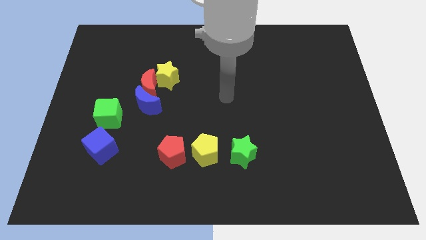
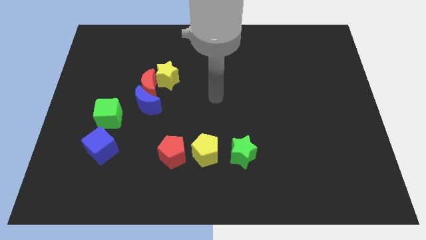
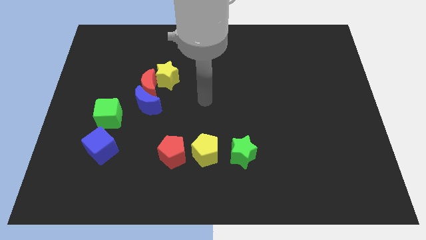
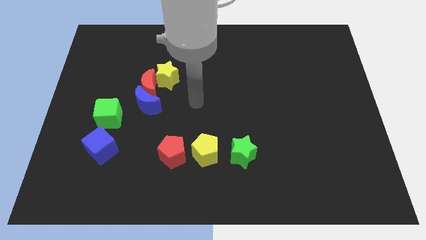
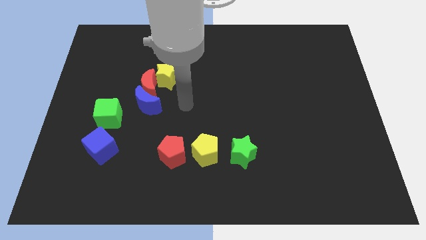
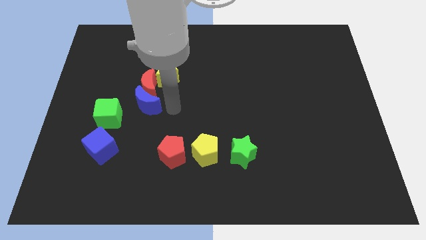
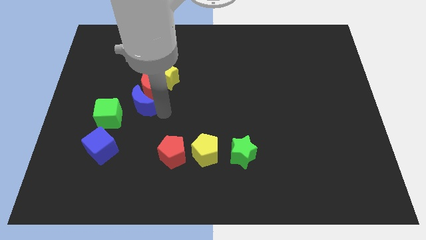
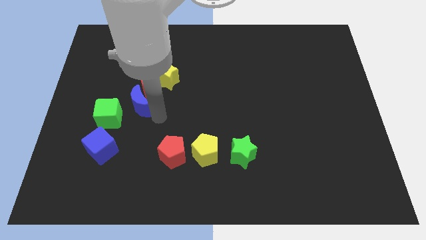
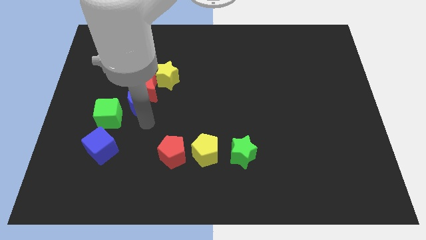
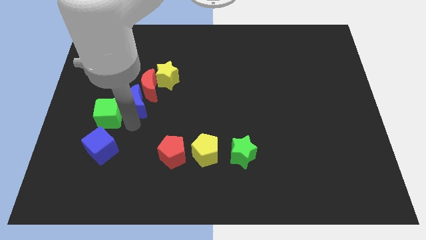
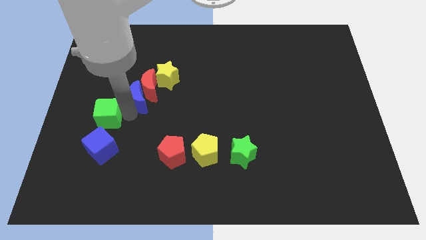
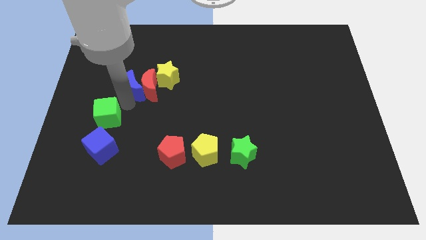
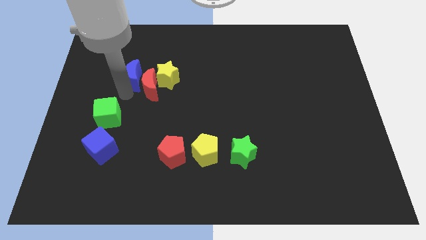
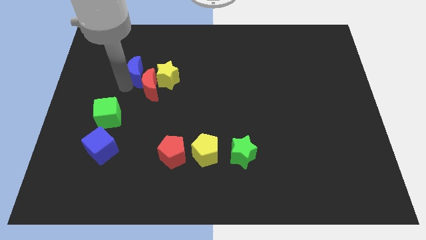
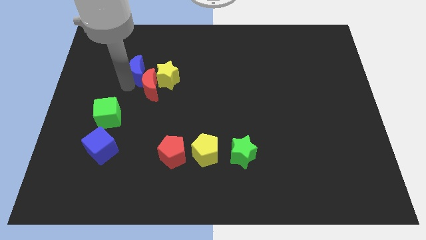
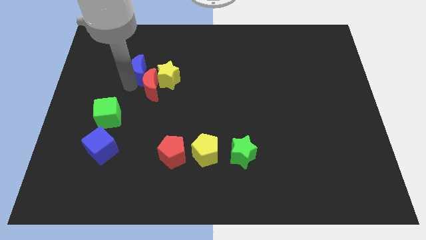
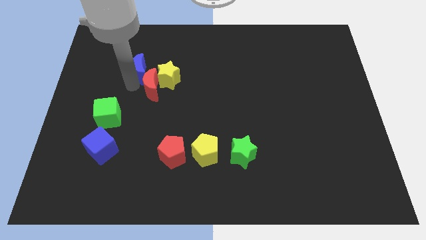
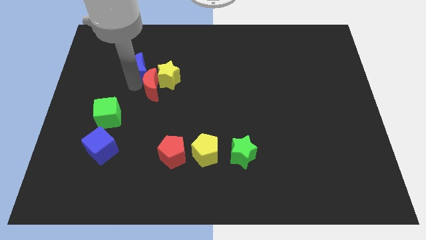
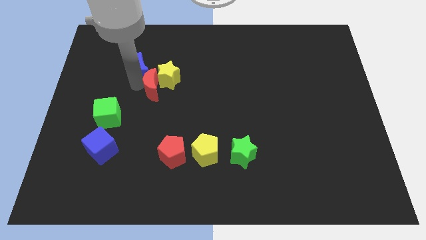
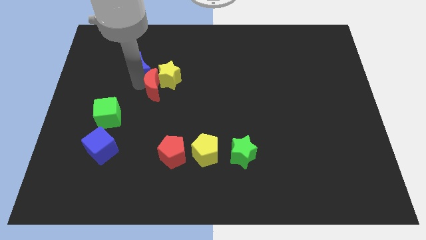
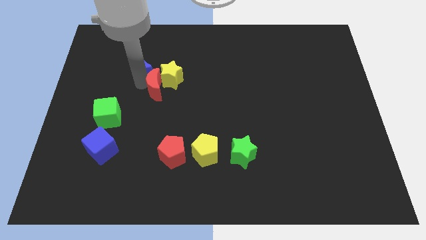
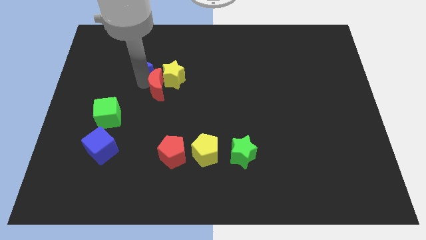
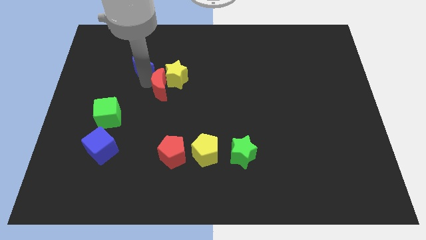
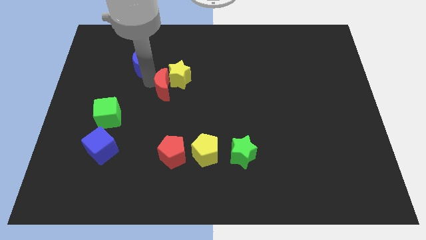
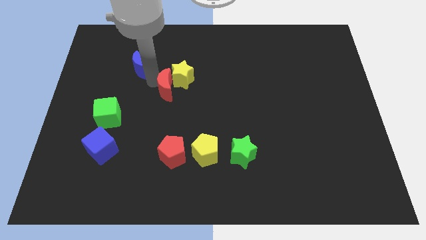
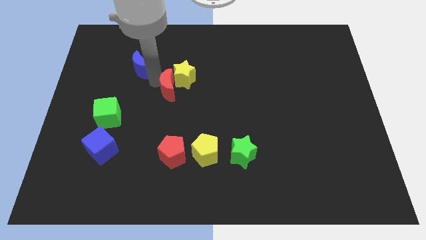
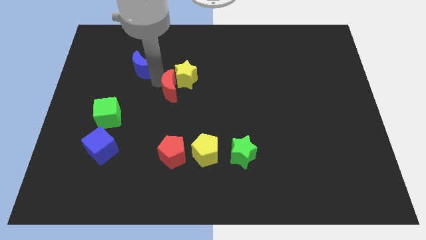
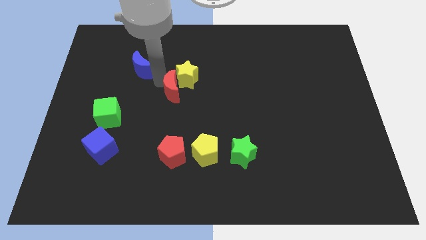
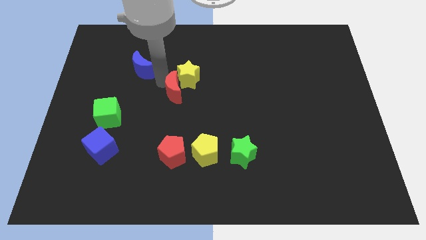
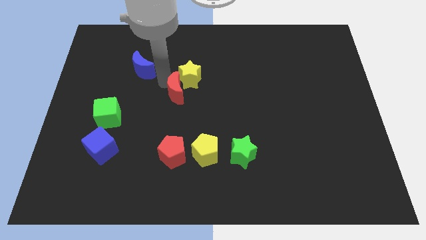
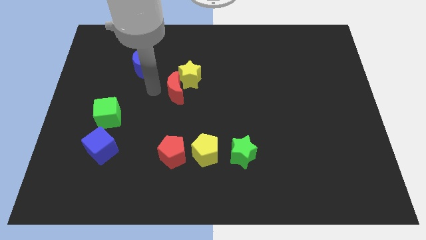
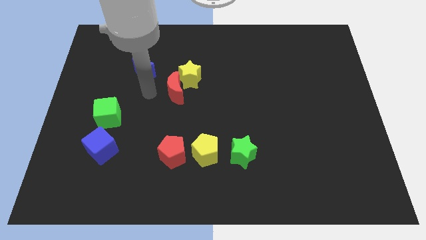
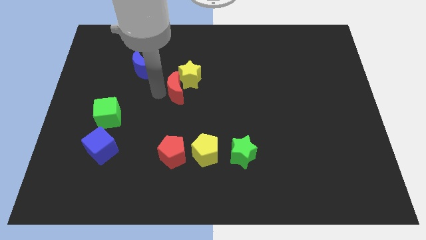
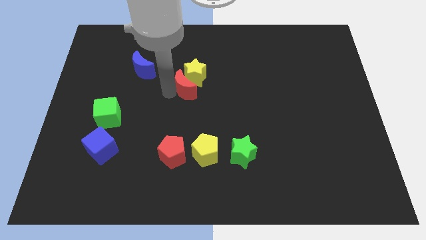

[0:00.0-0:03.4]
slide the red moon a little right

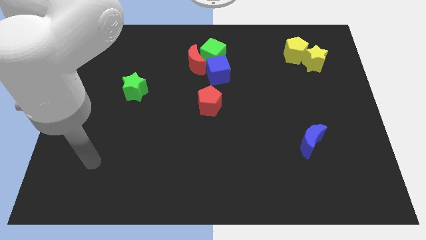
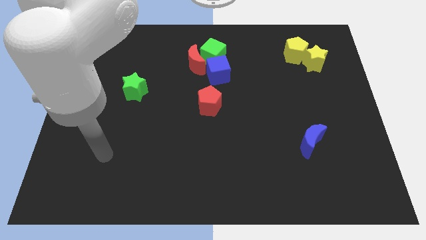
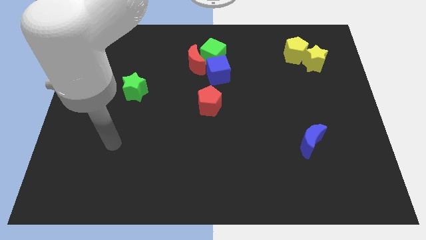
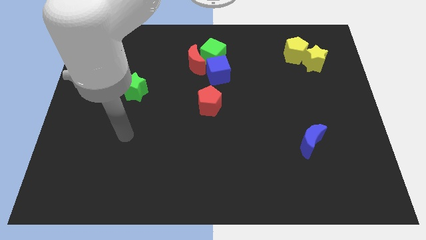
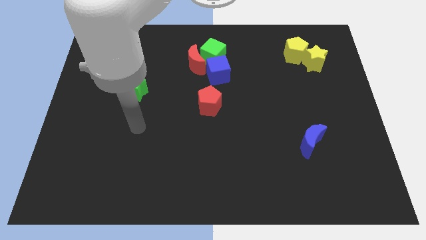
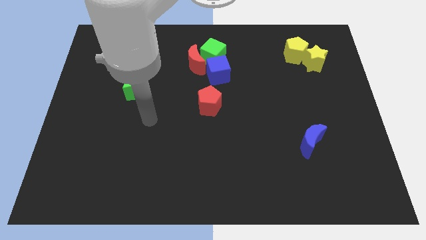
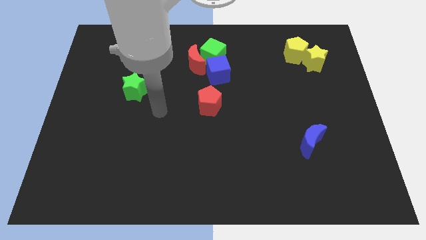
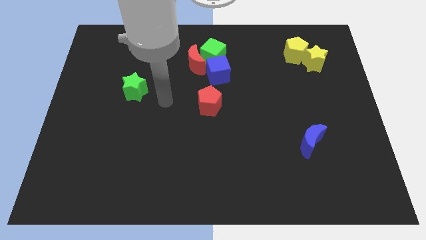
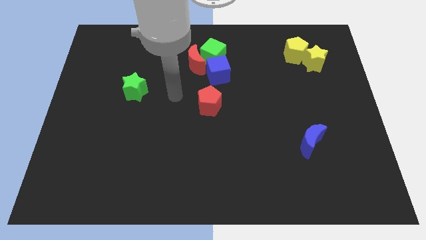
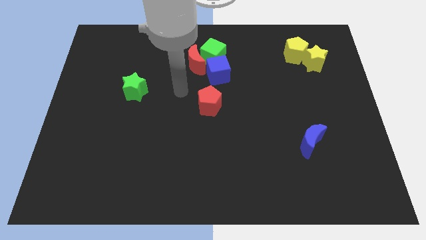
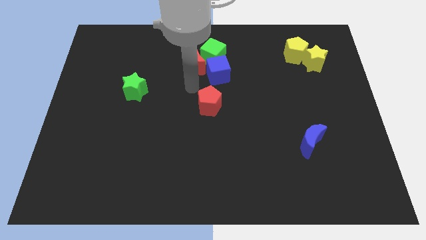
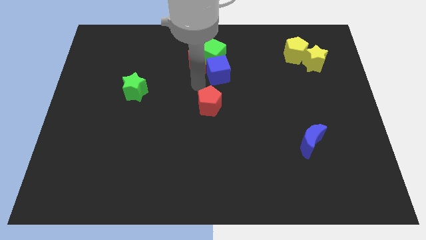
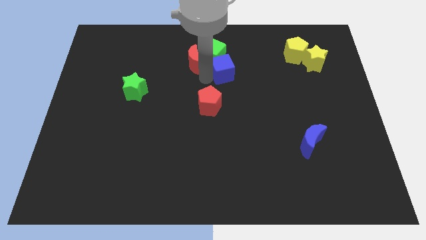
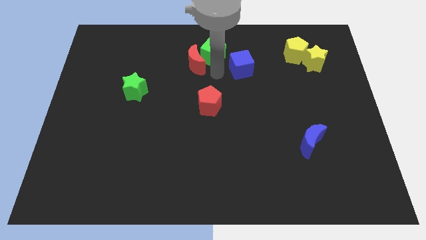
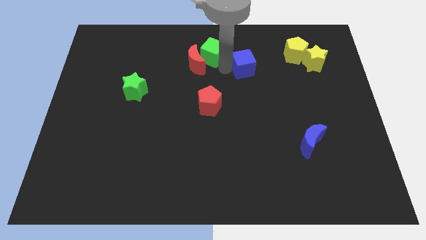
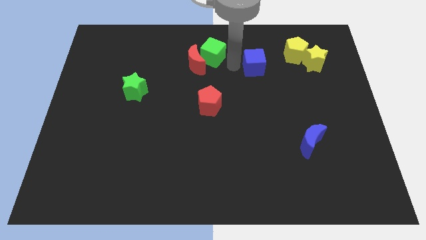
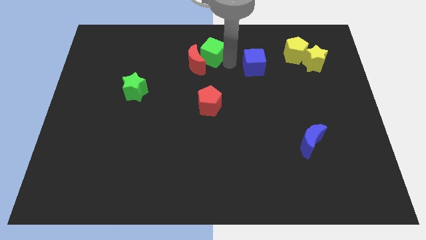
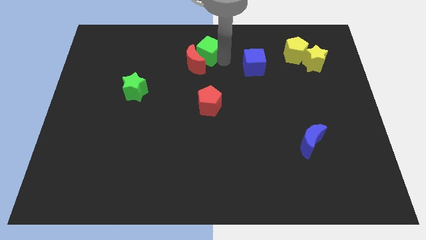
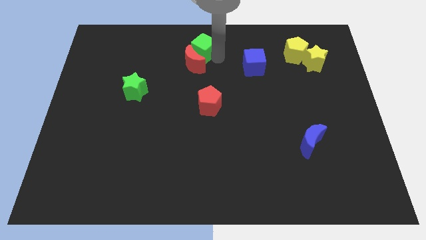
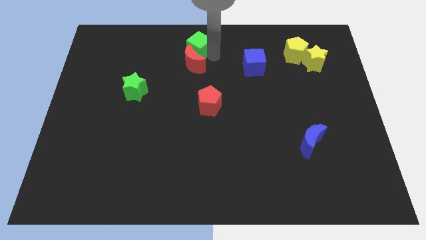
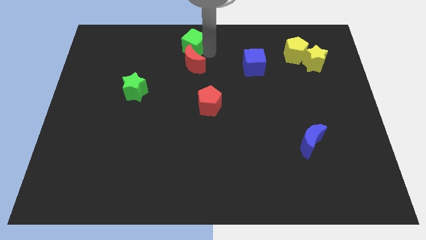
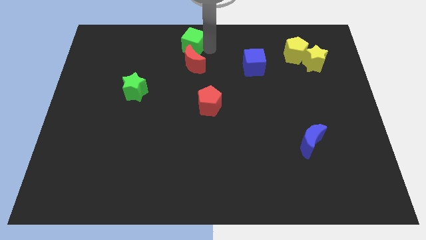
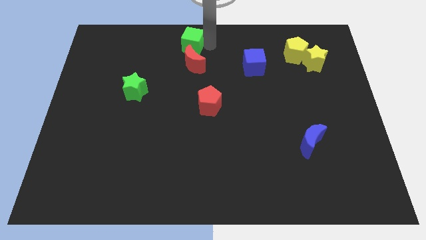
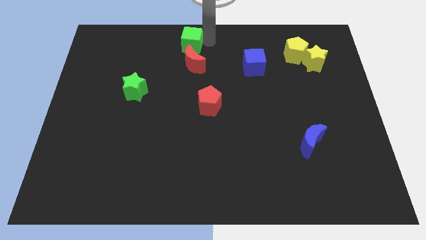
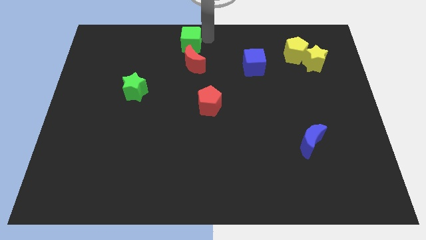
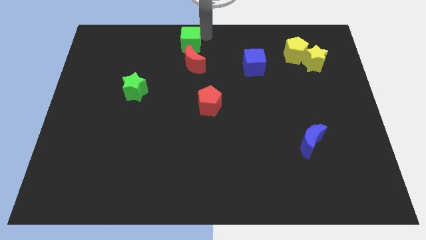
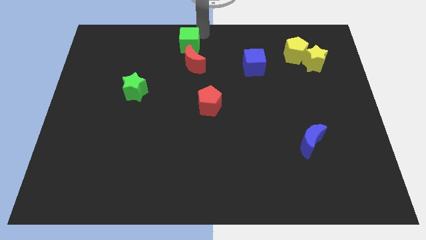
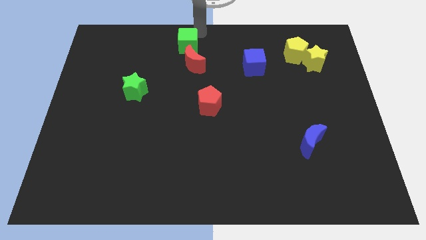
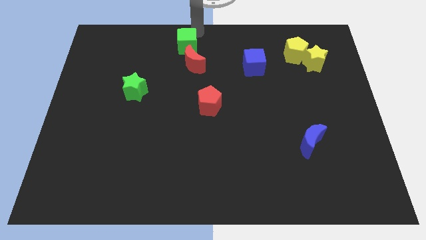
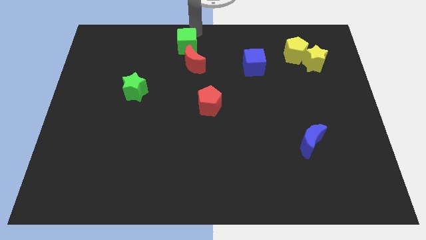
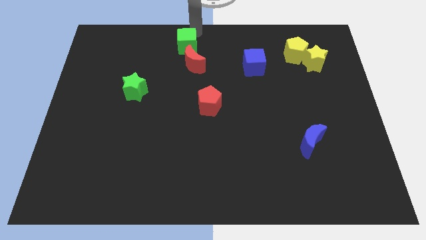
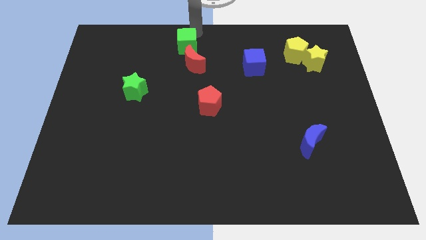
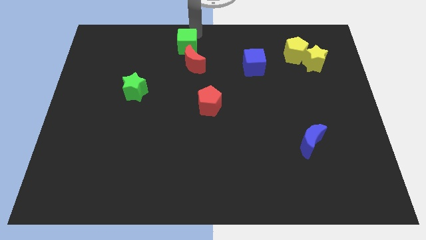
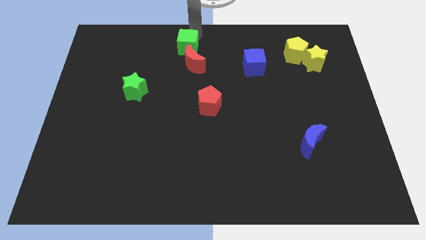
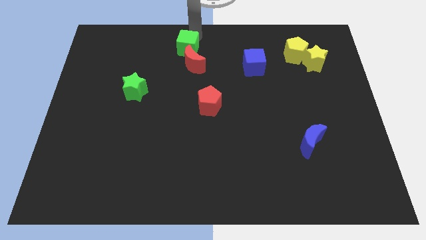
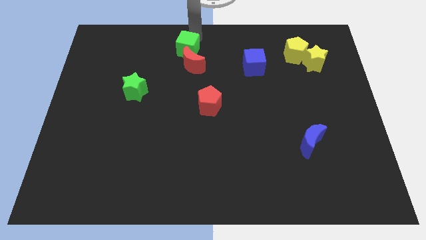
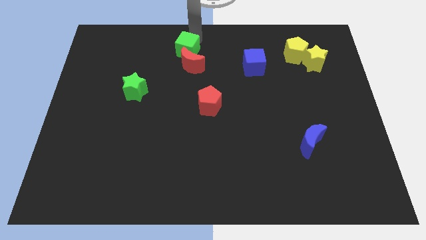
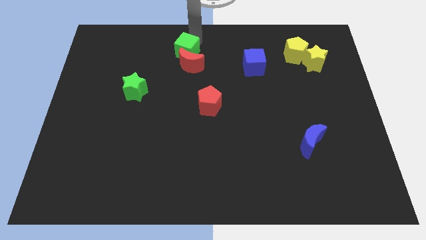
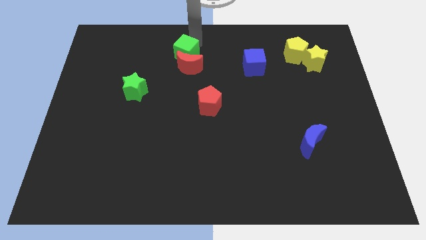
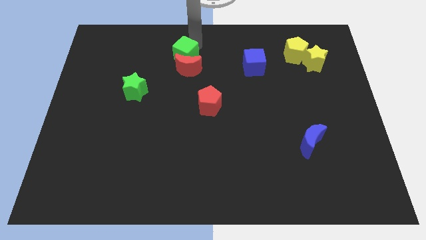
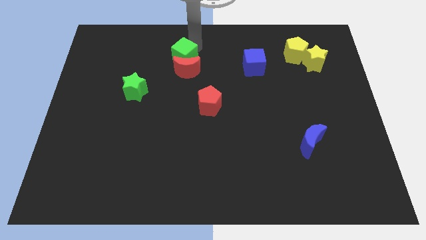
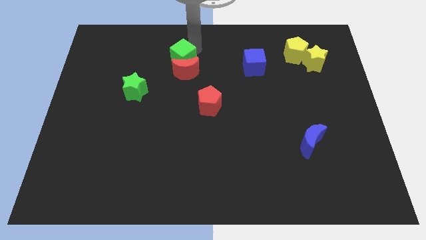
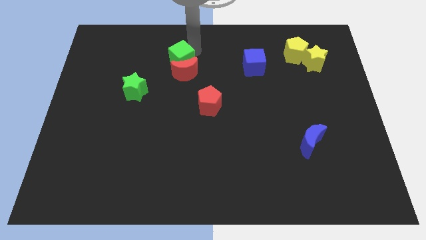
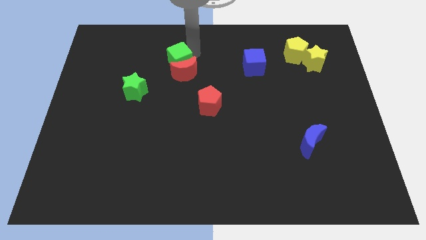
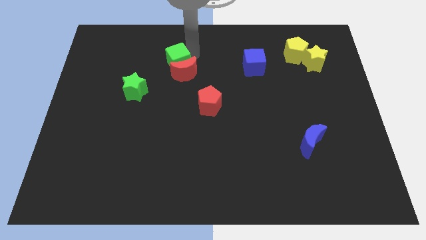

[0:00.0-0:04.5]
slightly slide the green cube diagonally down and left

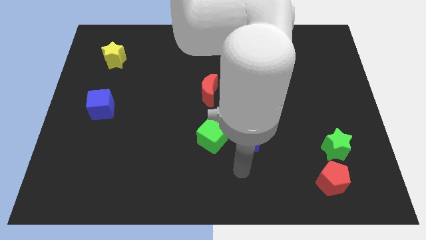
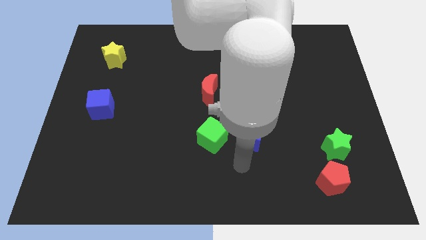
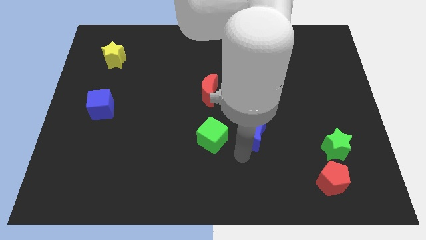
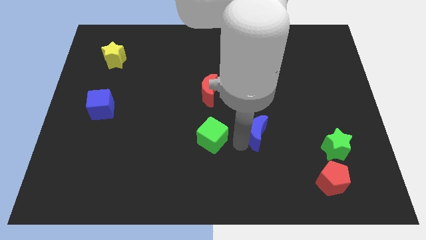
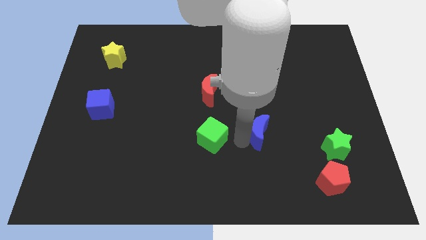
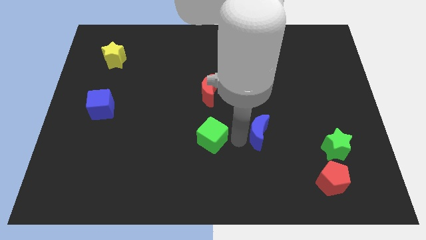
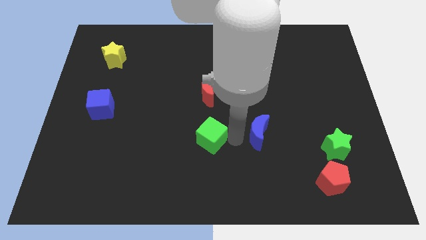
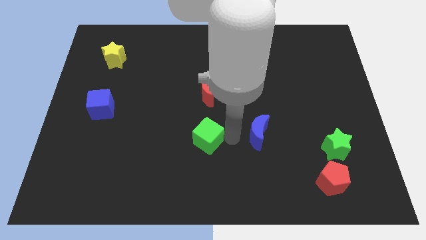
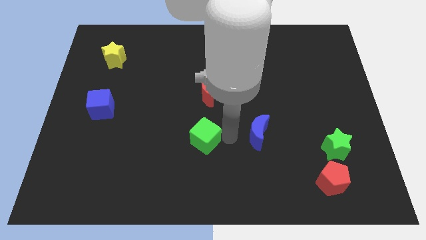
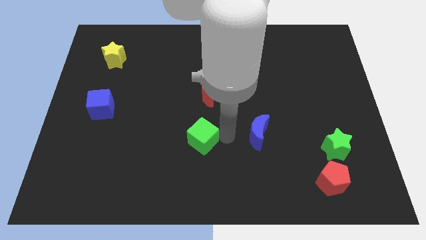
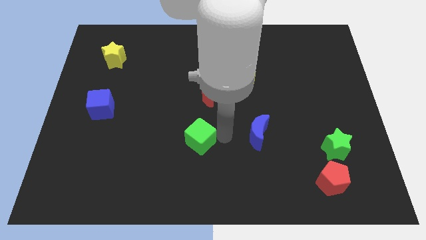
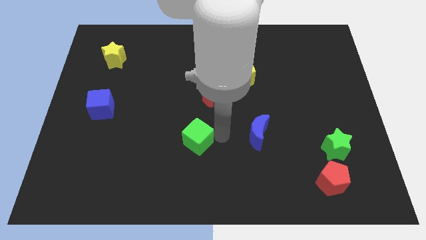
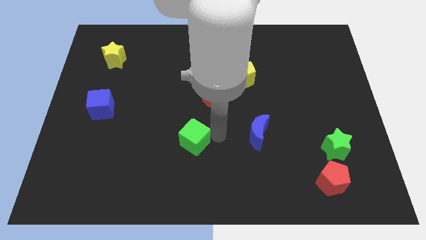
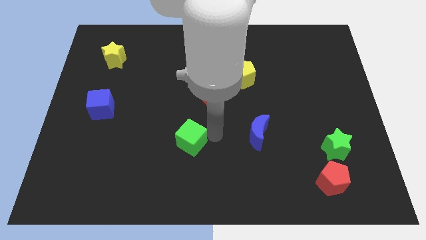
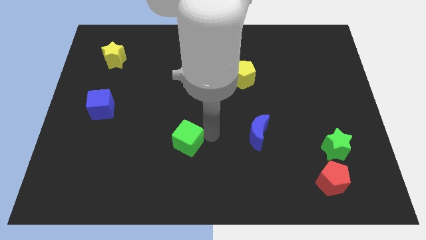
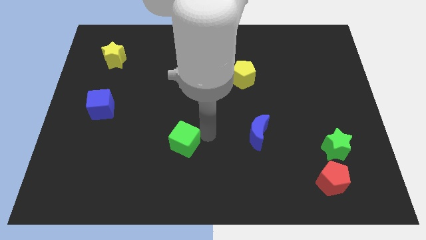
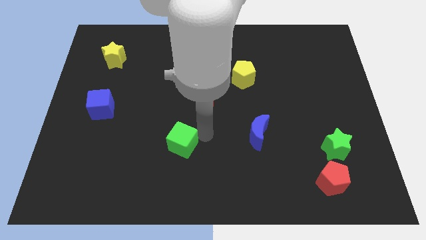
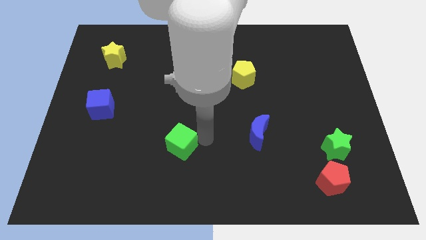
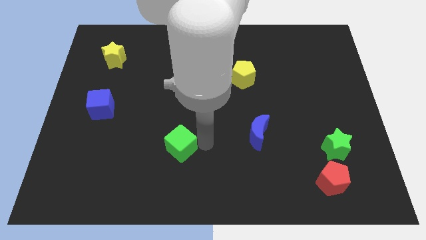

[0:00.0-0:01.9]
push the green cube a little to the left
